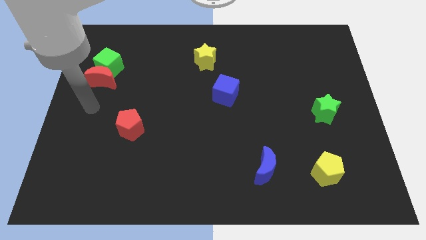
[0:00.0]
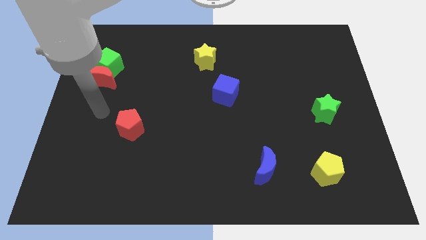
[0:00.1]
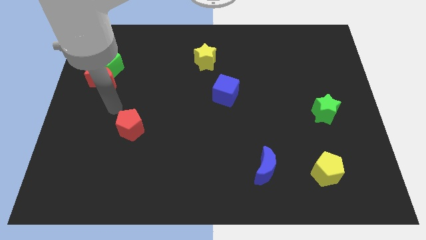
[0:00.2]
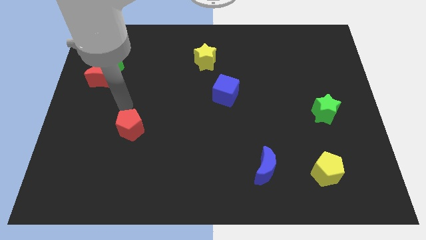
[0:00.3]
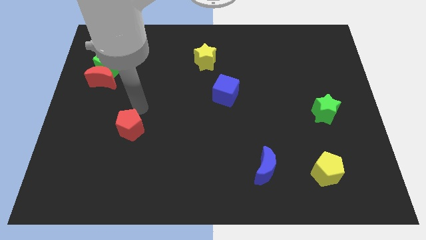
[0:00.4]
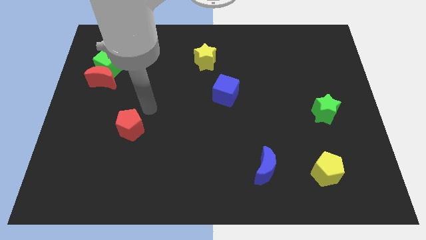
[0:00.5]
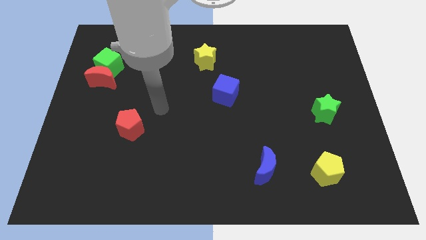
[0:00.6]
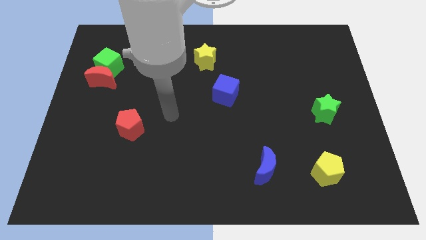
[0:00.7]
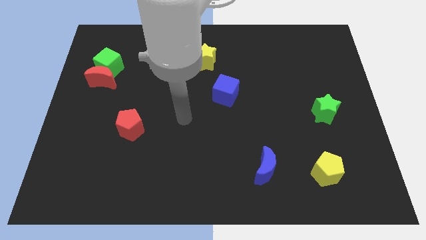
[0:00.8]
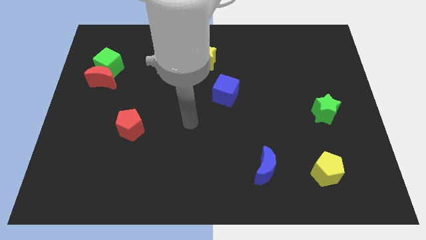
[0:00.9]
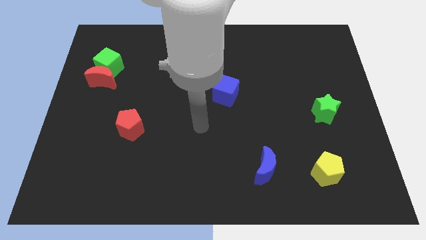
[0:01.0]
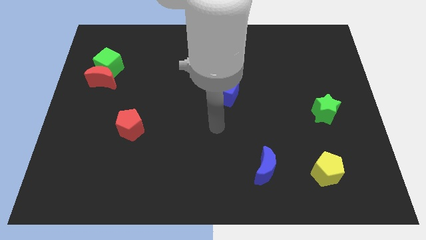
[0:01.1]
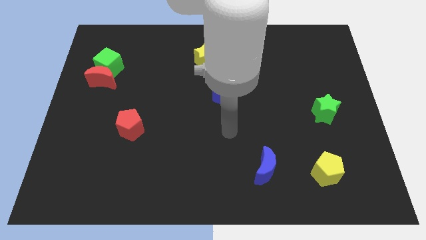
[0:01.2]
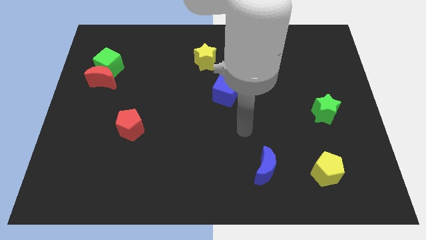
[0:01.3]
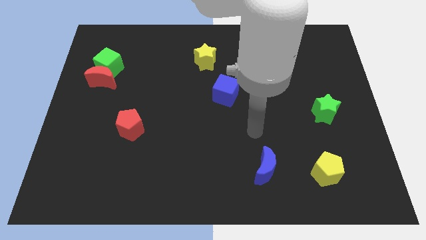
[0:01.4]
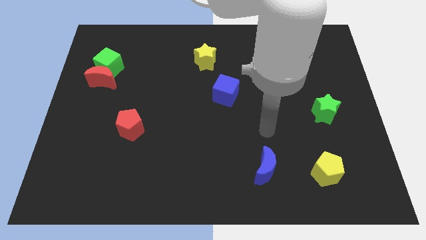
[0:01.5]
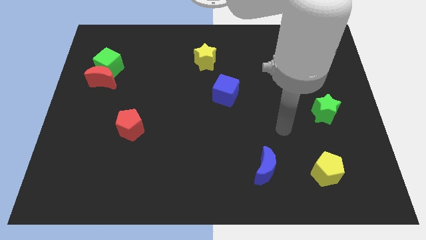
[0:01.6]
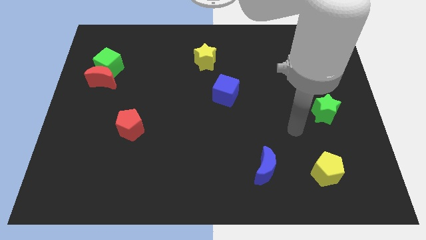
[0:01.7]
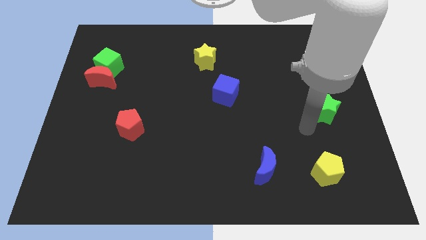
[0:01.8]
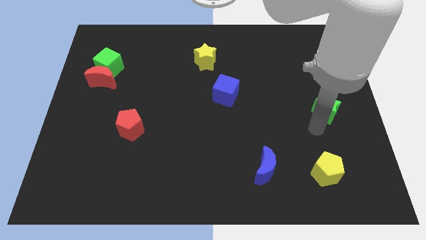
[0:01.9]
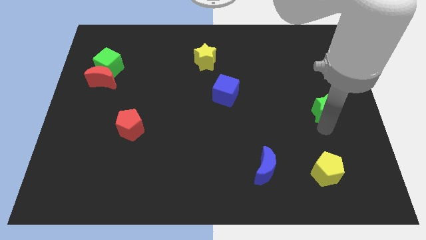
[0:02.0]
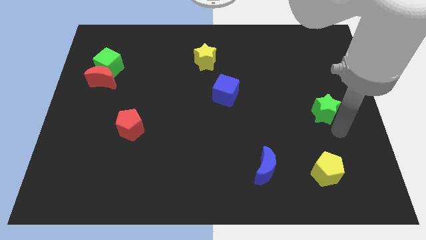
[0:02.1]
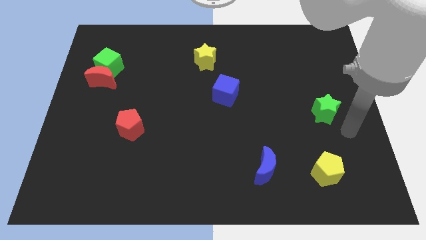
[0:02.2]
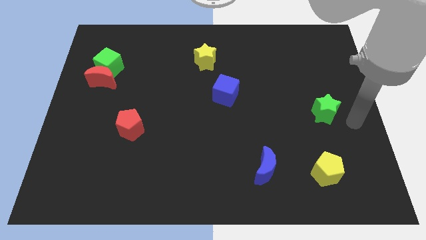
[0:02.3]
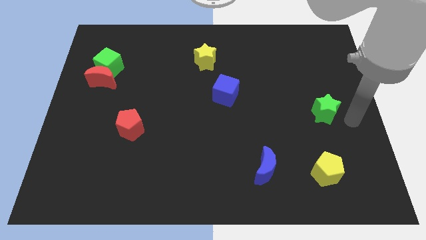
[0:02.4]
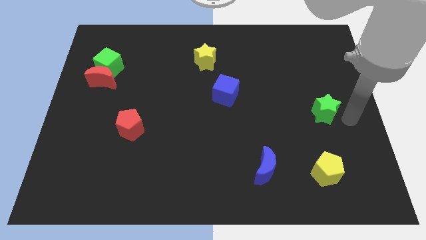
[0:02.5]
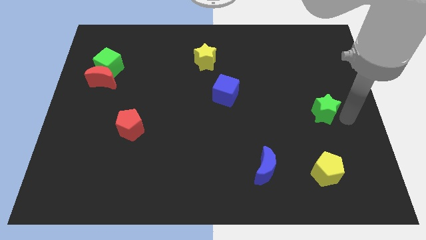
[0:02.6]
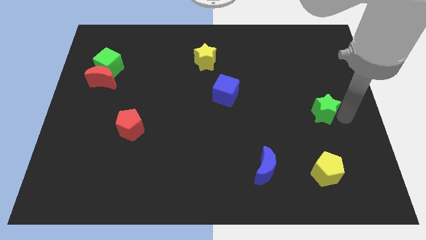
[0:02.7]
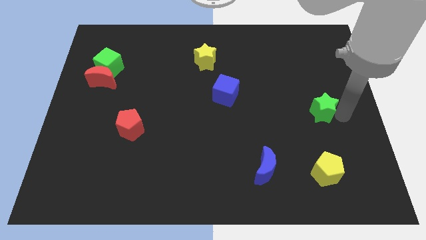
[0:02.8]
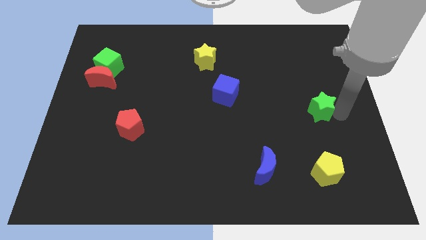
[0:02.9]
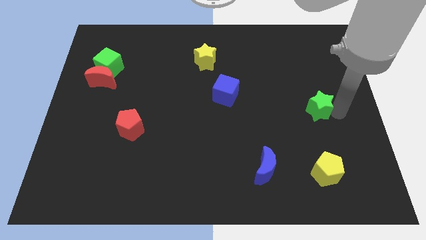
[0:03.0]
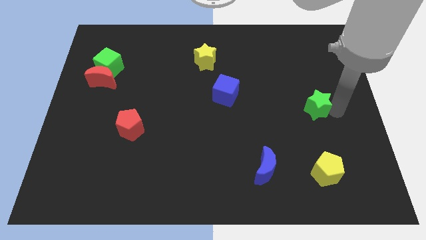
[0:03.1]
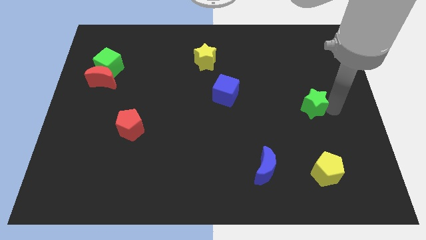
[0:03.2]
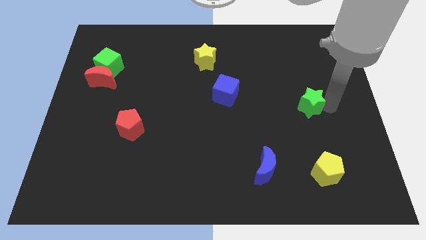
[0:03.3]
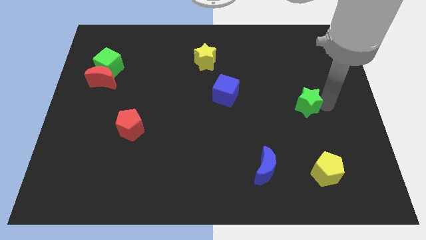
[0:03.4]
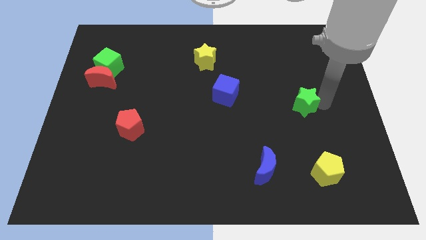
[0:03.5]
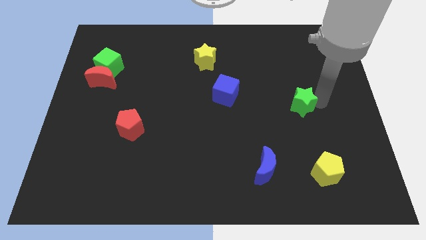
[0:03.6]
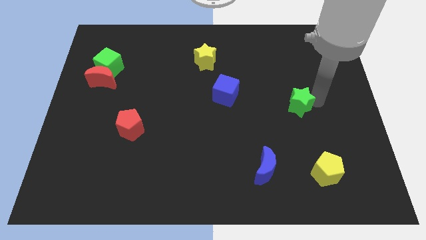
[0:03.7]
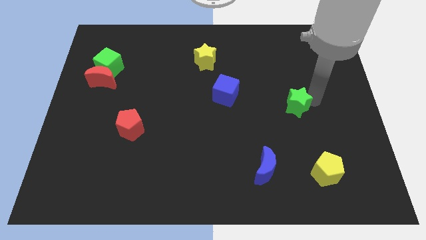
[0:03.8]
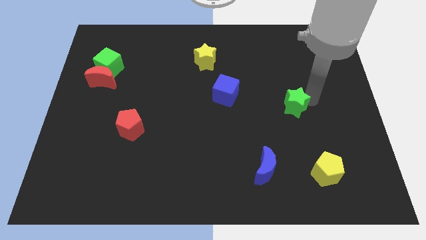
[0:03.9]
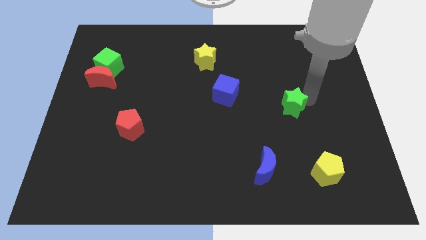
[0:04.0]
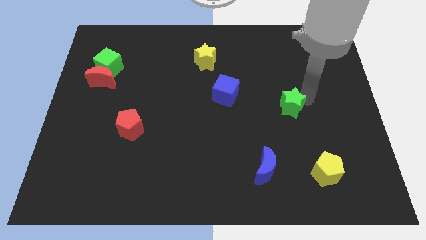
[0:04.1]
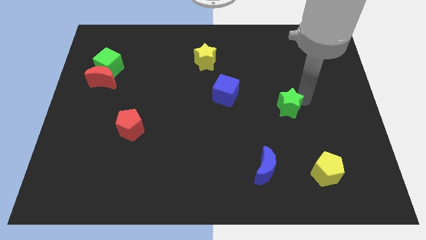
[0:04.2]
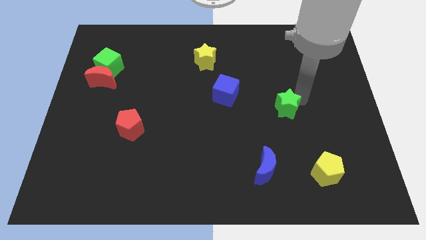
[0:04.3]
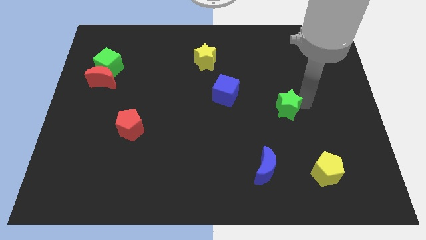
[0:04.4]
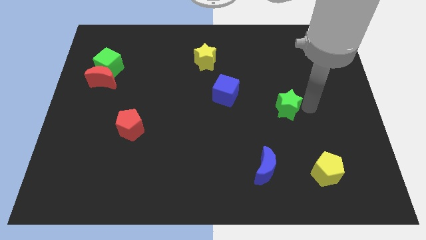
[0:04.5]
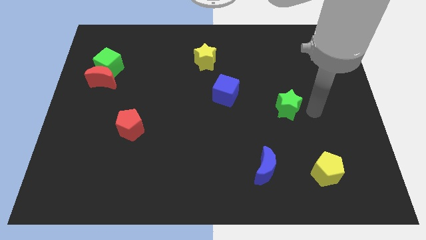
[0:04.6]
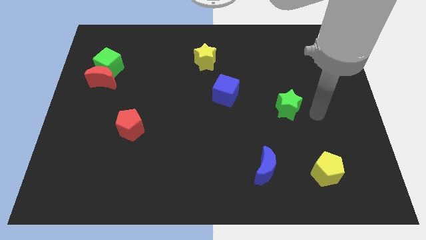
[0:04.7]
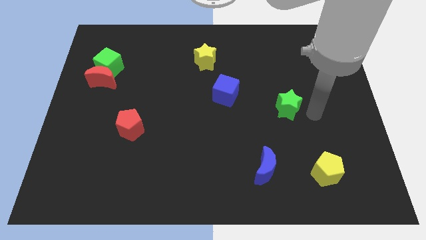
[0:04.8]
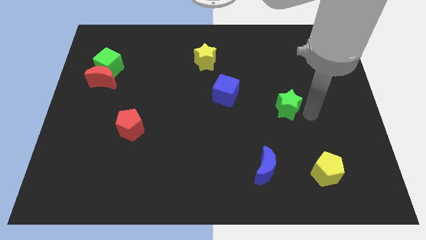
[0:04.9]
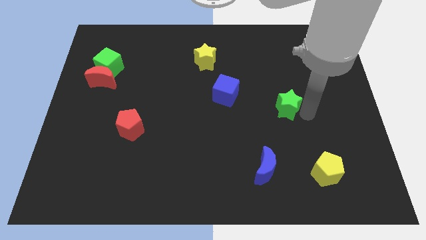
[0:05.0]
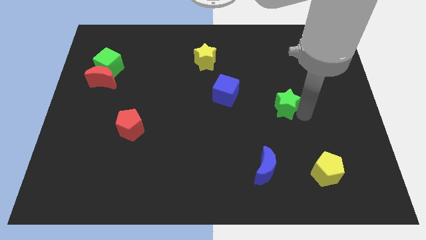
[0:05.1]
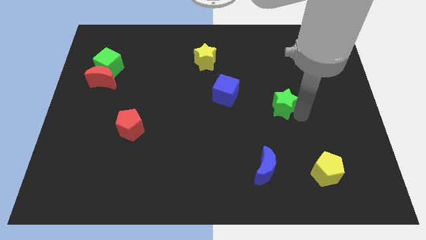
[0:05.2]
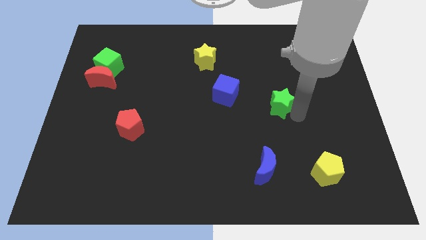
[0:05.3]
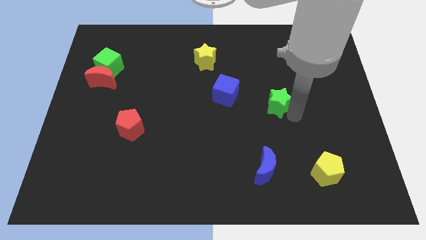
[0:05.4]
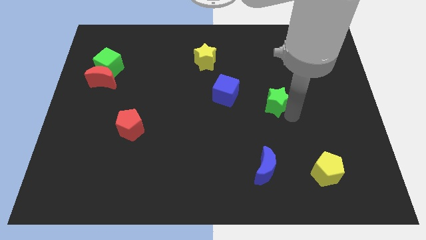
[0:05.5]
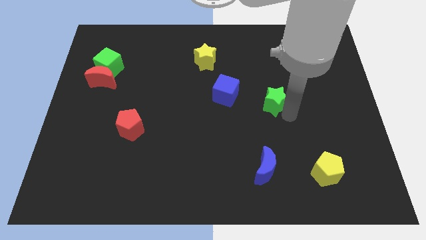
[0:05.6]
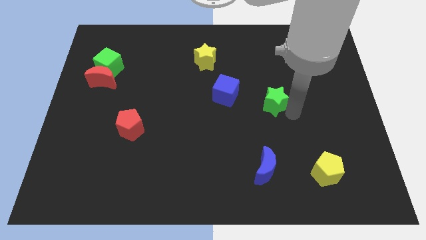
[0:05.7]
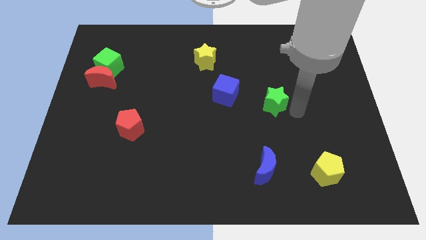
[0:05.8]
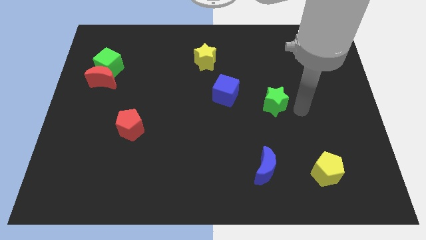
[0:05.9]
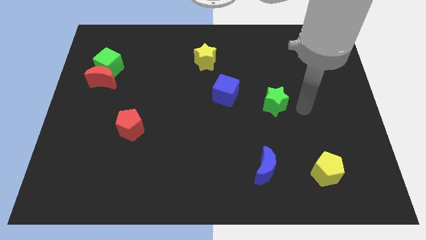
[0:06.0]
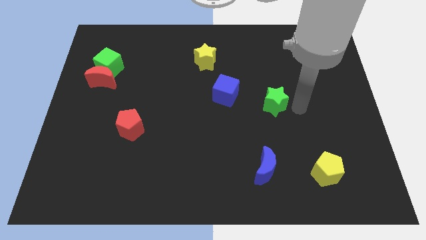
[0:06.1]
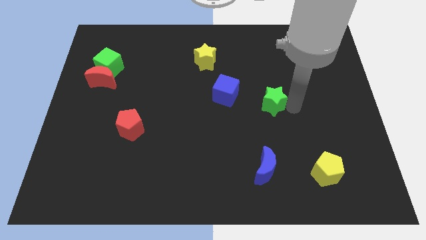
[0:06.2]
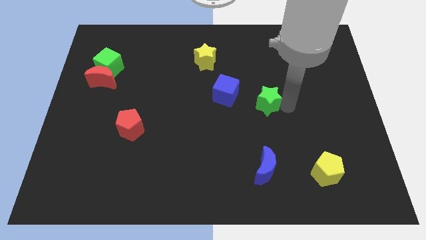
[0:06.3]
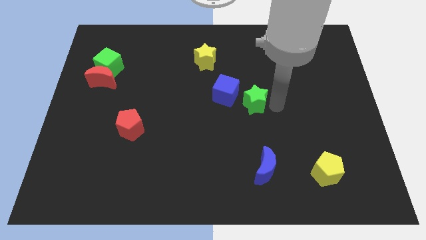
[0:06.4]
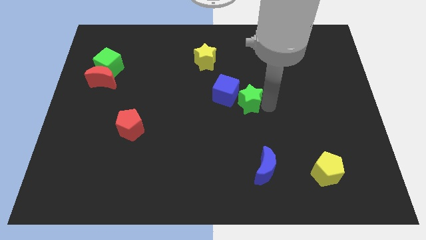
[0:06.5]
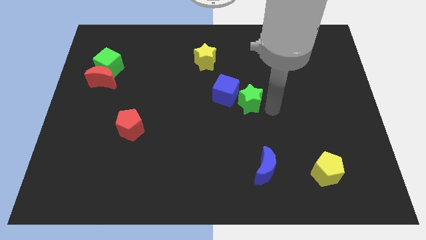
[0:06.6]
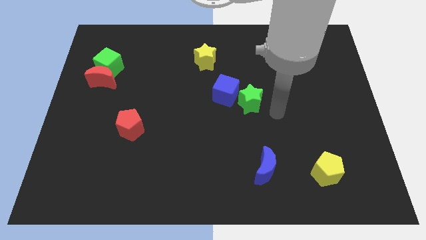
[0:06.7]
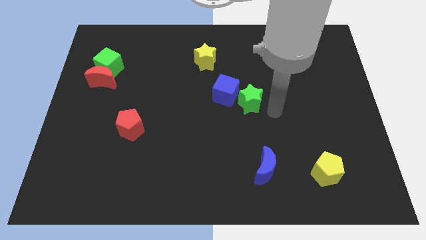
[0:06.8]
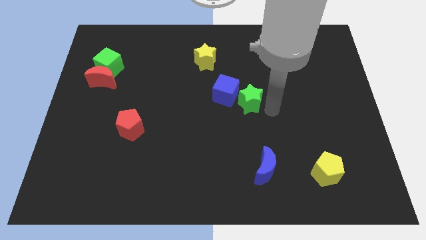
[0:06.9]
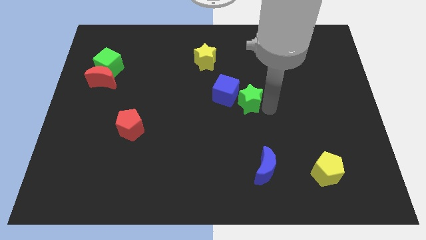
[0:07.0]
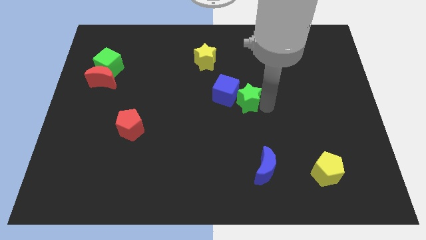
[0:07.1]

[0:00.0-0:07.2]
move the green star next to the blue cube
